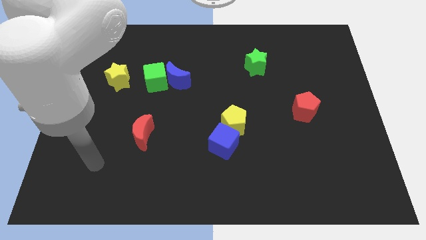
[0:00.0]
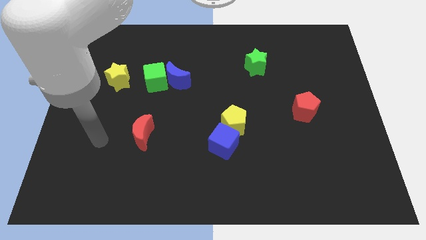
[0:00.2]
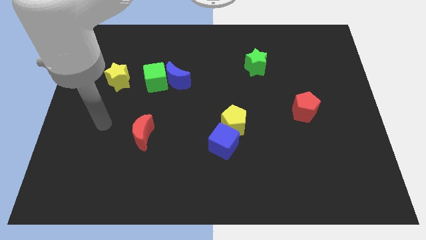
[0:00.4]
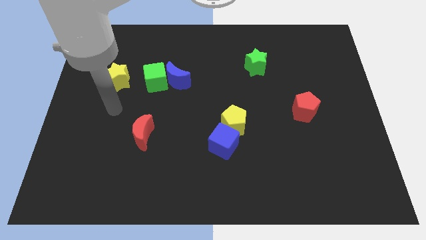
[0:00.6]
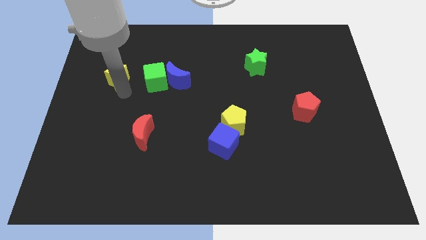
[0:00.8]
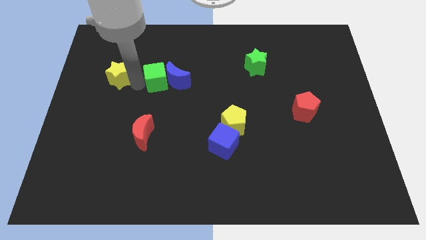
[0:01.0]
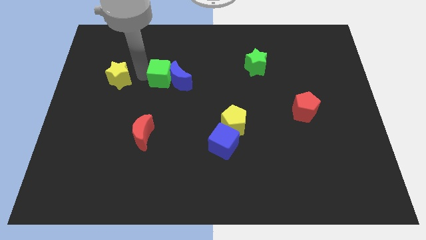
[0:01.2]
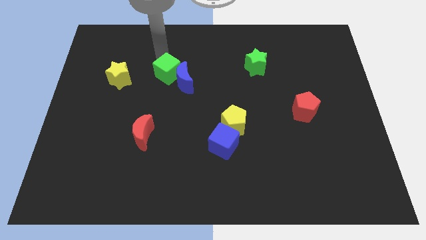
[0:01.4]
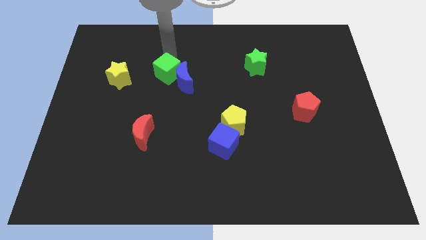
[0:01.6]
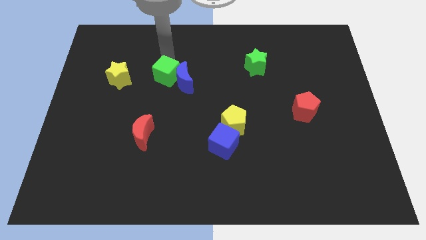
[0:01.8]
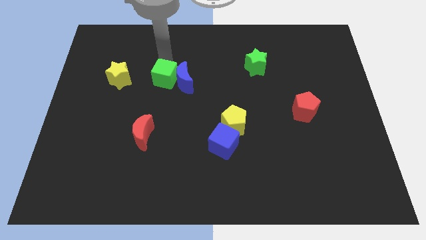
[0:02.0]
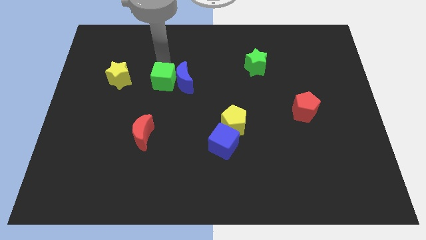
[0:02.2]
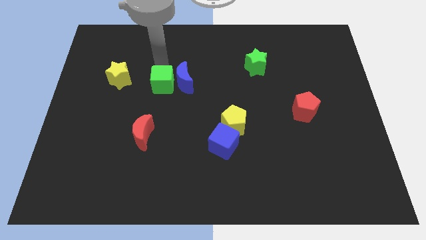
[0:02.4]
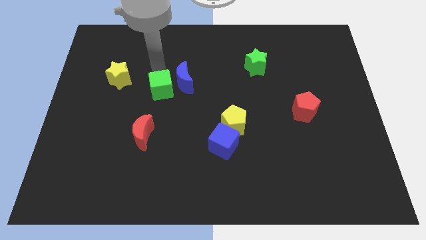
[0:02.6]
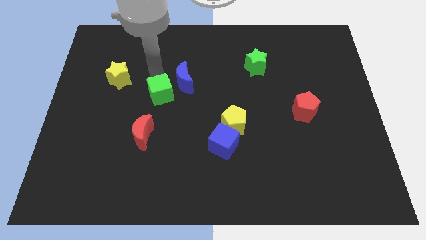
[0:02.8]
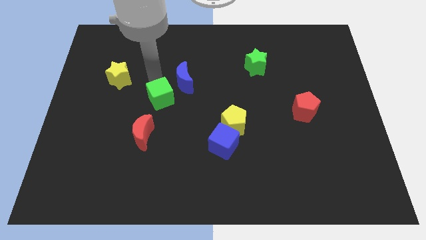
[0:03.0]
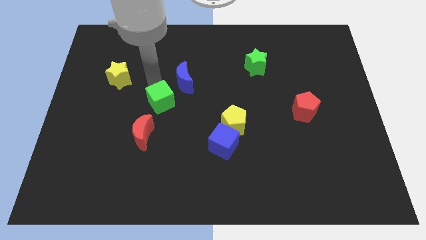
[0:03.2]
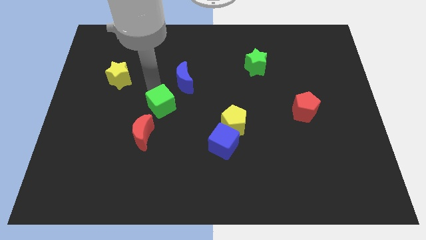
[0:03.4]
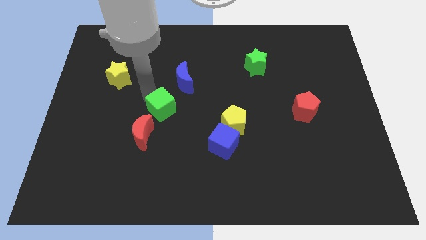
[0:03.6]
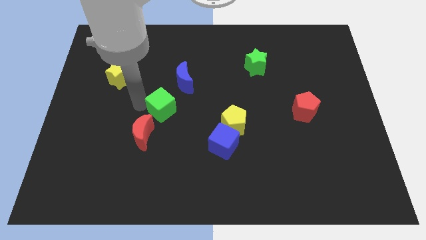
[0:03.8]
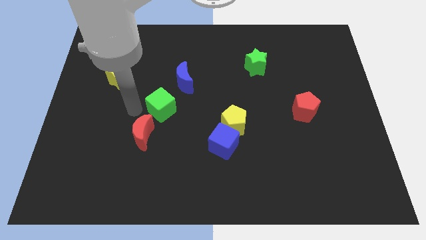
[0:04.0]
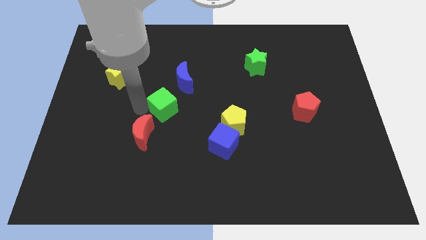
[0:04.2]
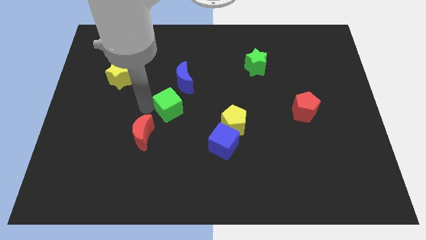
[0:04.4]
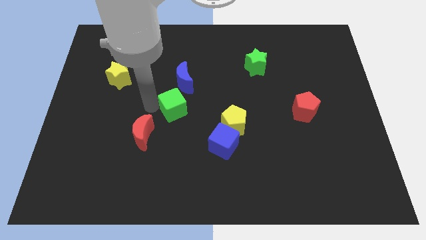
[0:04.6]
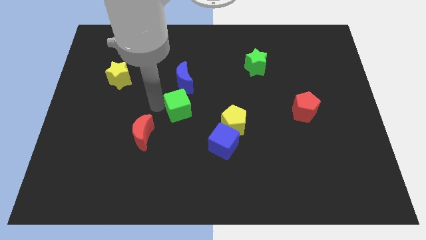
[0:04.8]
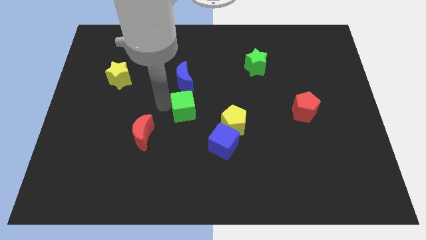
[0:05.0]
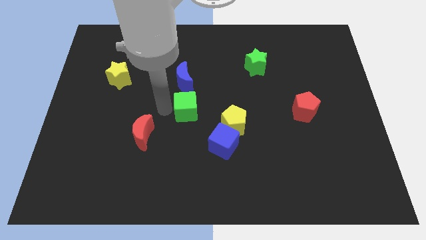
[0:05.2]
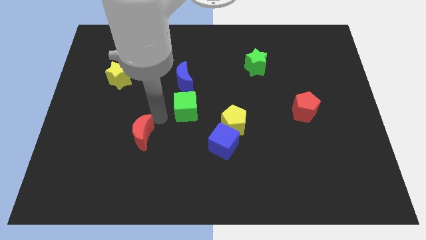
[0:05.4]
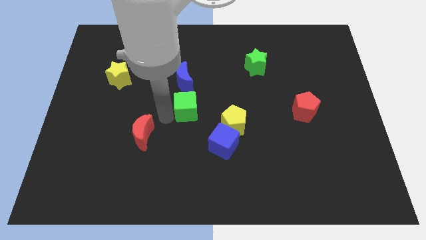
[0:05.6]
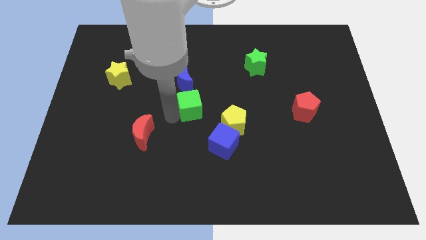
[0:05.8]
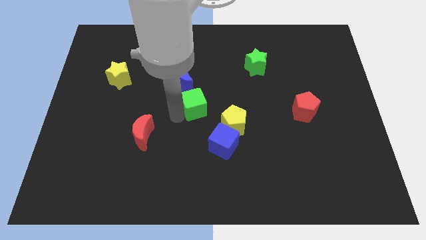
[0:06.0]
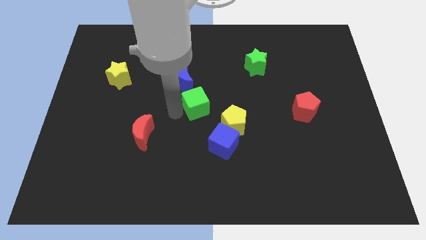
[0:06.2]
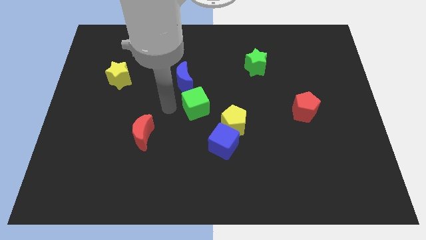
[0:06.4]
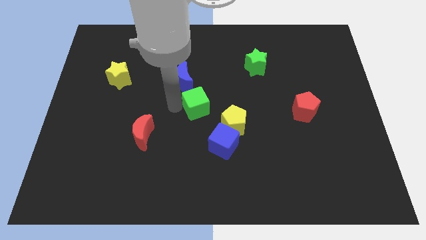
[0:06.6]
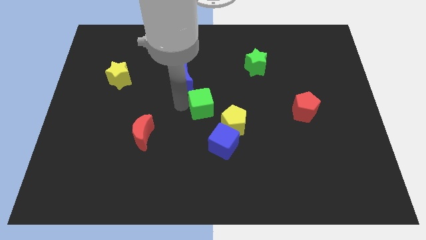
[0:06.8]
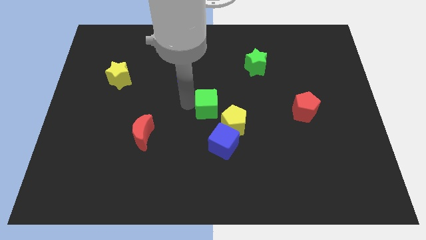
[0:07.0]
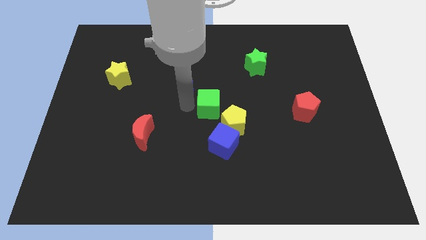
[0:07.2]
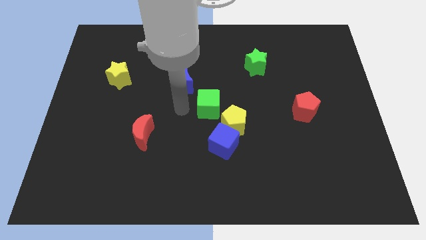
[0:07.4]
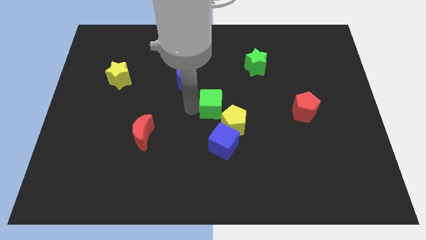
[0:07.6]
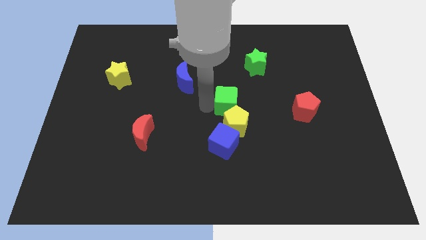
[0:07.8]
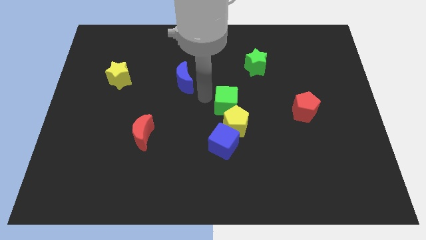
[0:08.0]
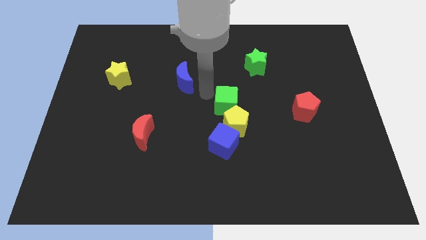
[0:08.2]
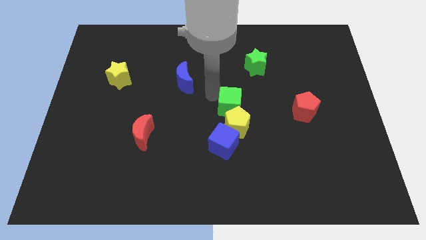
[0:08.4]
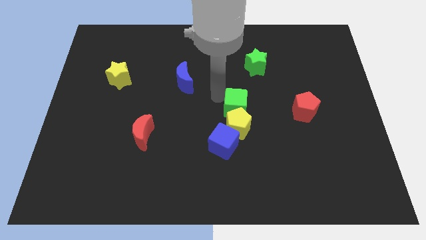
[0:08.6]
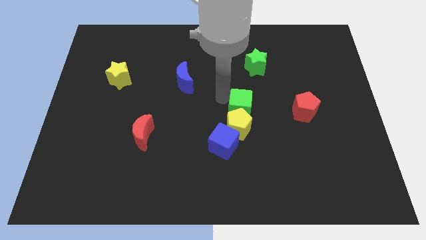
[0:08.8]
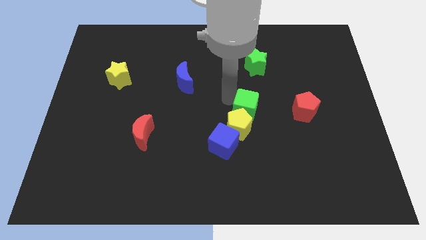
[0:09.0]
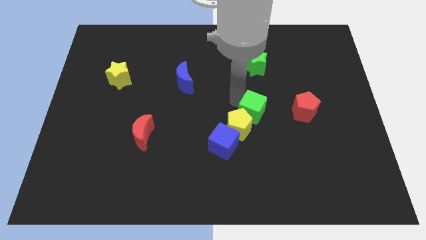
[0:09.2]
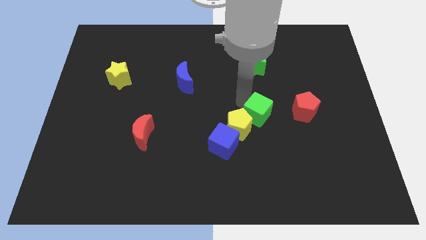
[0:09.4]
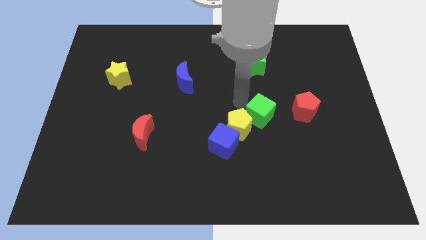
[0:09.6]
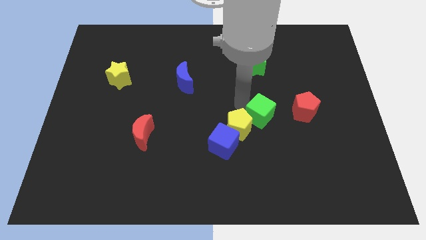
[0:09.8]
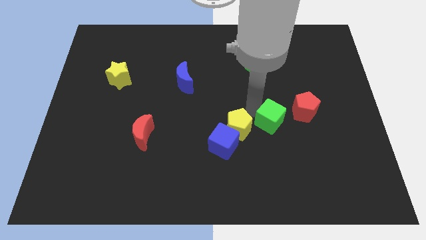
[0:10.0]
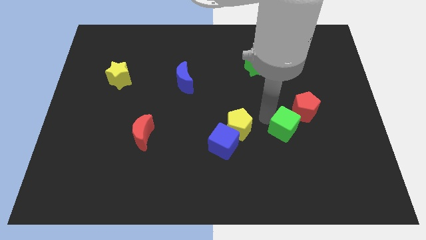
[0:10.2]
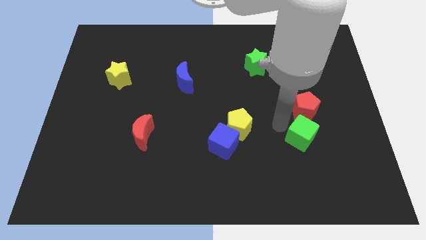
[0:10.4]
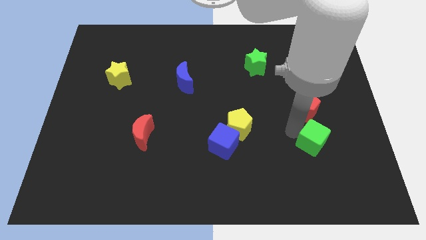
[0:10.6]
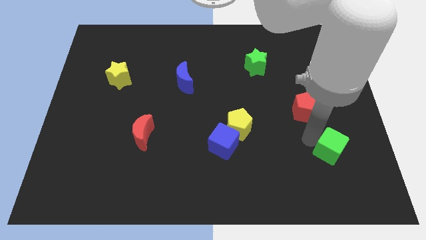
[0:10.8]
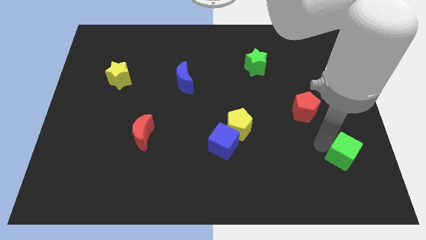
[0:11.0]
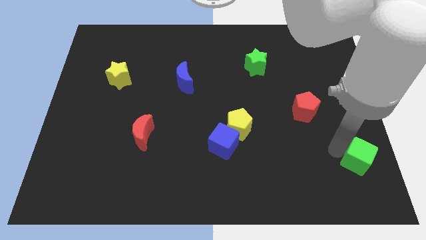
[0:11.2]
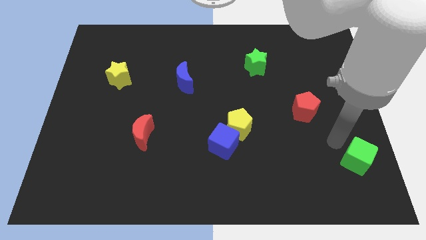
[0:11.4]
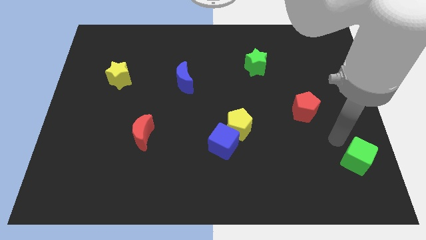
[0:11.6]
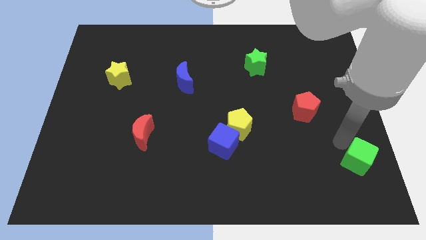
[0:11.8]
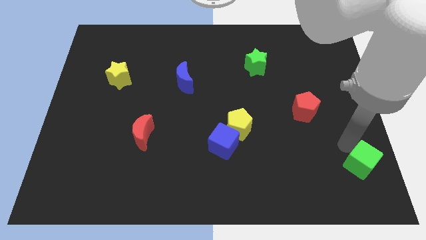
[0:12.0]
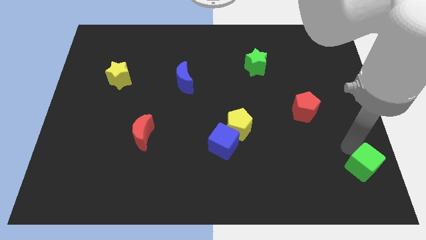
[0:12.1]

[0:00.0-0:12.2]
move the green cube to the lower right corner

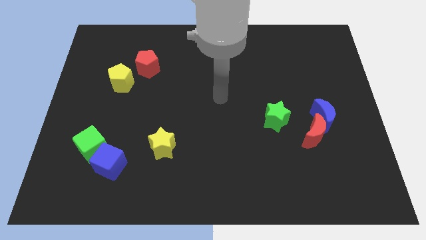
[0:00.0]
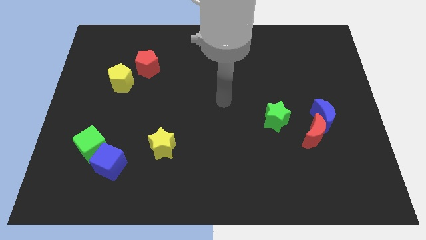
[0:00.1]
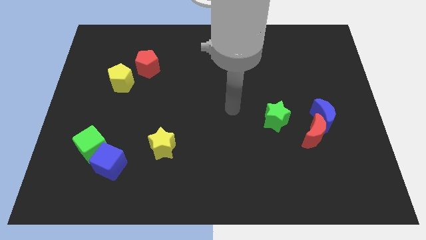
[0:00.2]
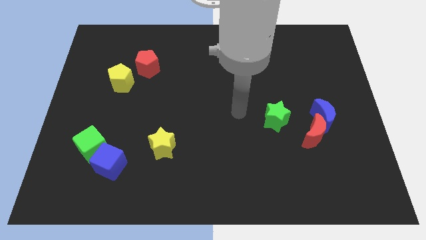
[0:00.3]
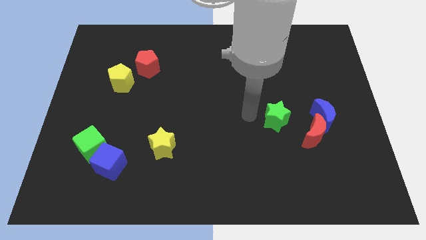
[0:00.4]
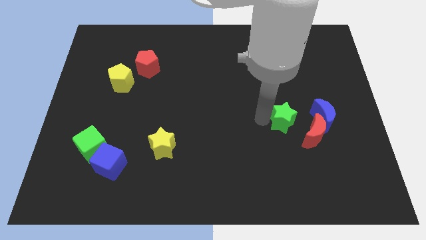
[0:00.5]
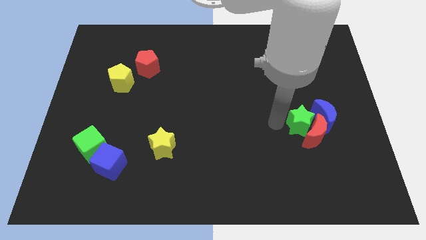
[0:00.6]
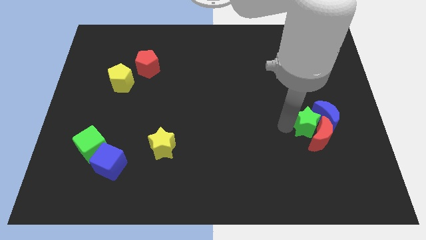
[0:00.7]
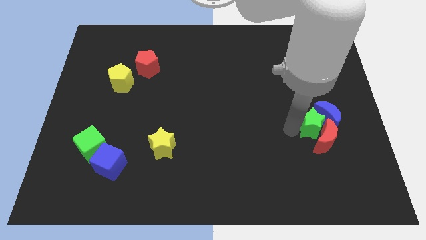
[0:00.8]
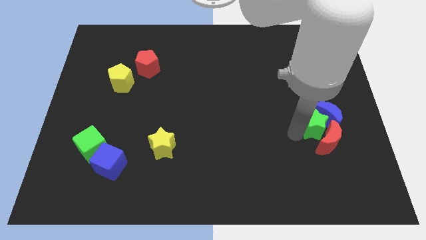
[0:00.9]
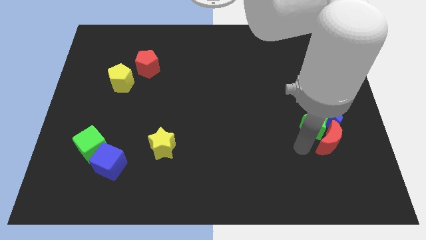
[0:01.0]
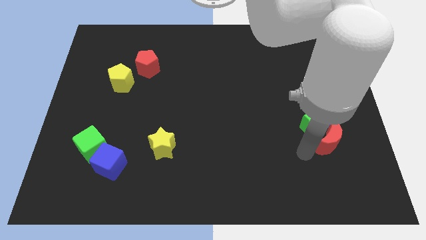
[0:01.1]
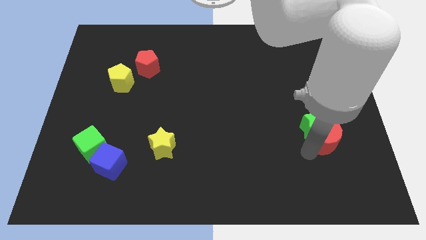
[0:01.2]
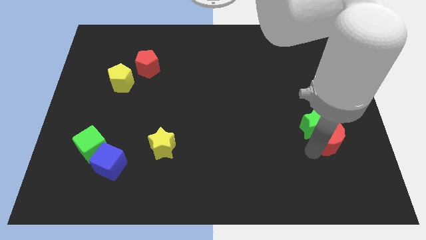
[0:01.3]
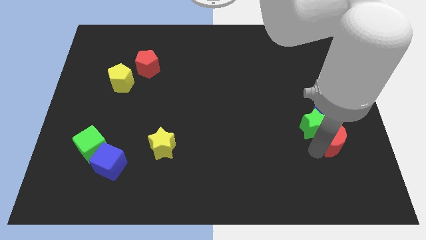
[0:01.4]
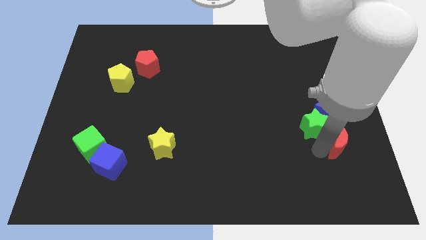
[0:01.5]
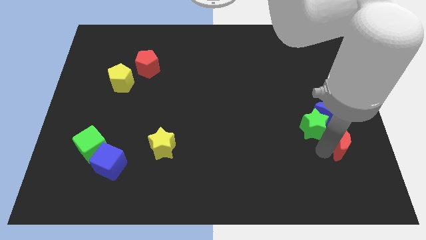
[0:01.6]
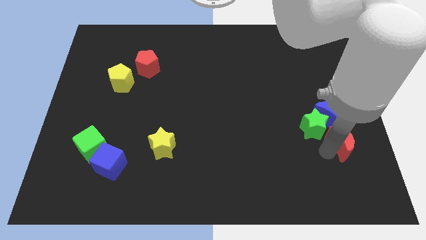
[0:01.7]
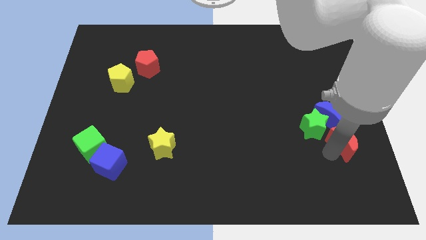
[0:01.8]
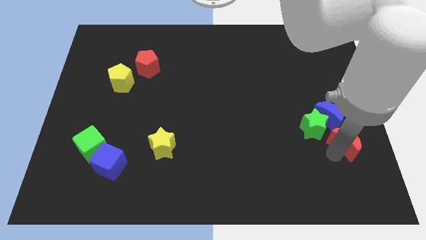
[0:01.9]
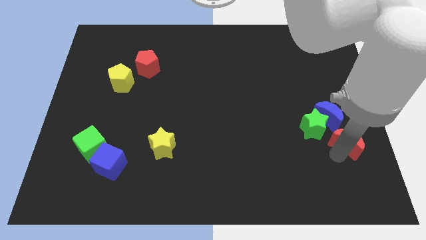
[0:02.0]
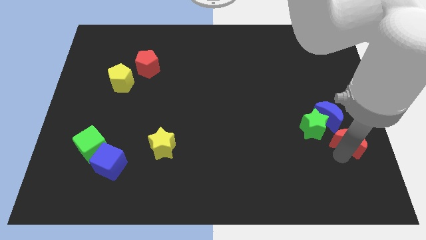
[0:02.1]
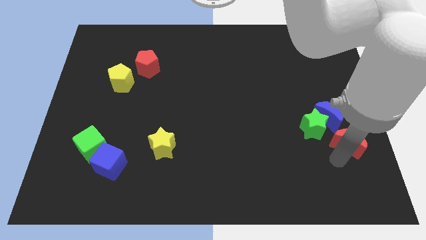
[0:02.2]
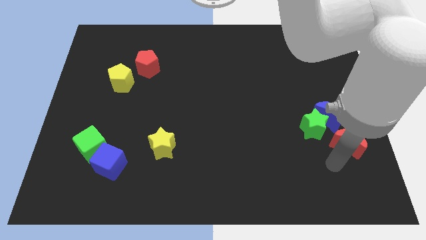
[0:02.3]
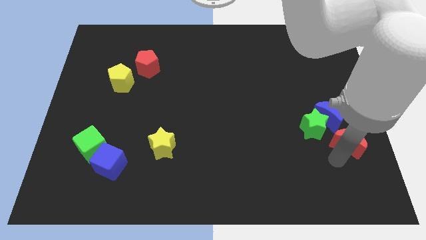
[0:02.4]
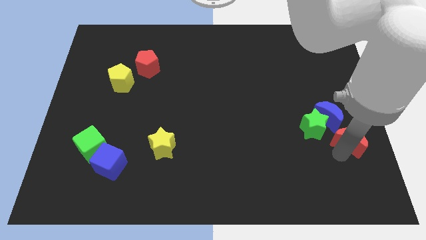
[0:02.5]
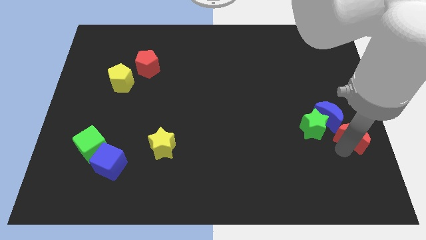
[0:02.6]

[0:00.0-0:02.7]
slide the red moon to the right side
